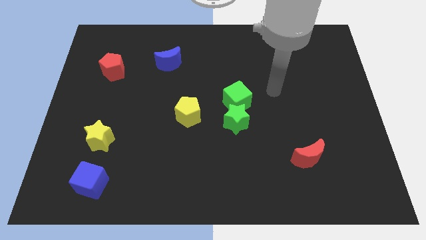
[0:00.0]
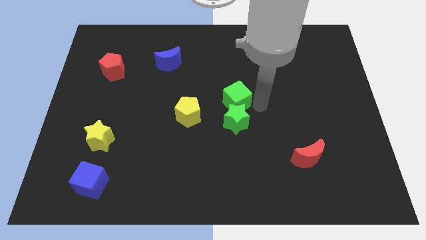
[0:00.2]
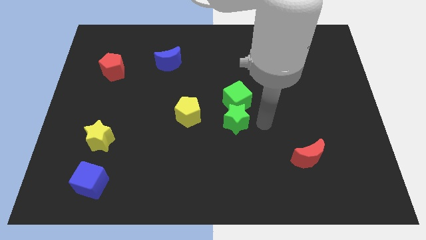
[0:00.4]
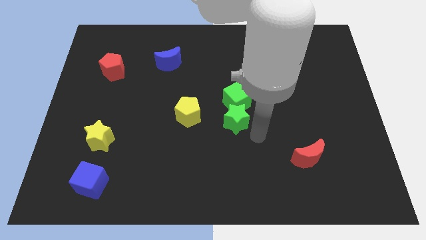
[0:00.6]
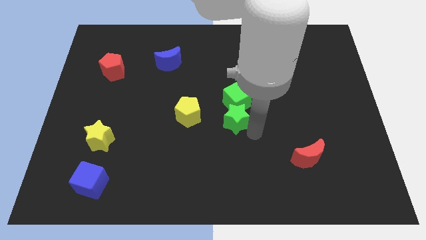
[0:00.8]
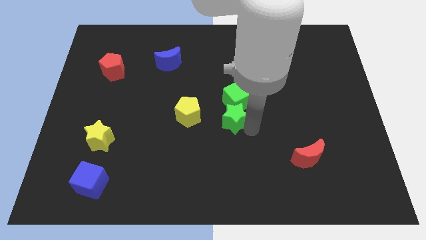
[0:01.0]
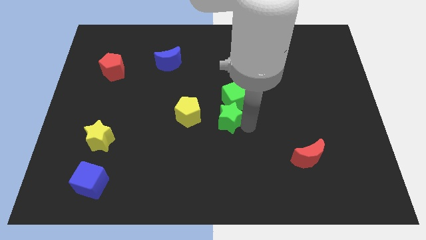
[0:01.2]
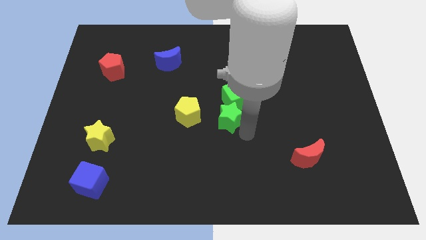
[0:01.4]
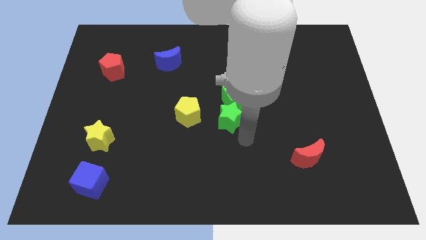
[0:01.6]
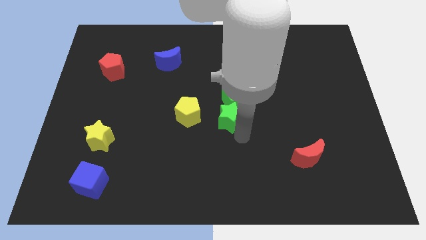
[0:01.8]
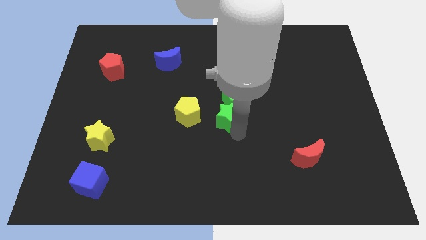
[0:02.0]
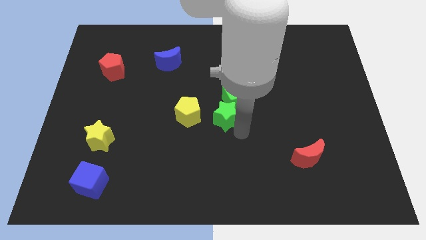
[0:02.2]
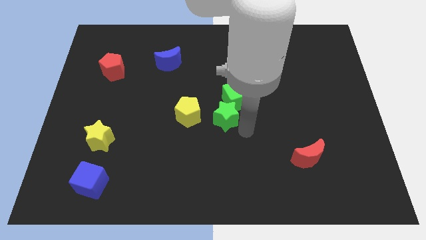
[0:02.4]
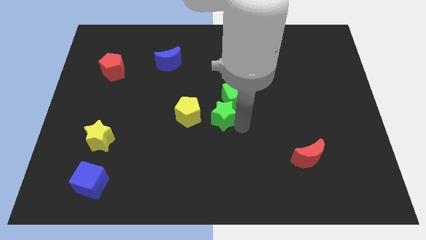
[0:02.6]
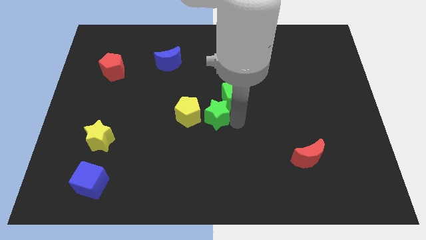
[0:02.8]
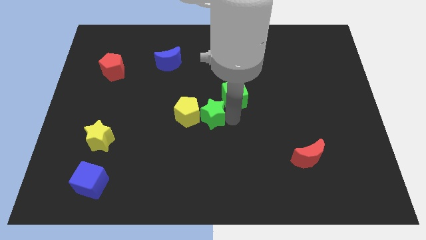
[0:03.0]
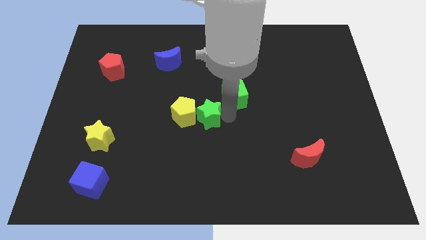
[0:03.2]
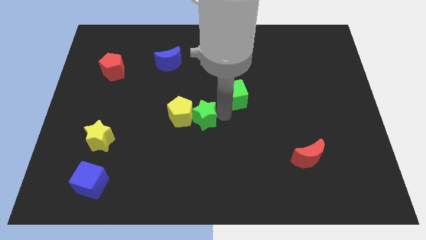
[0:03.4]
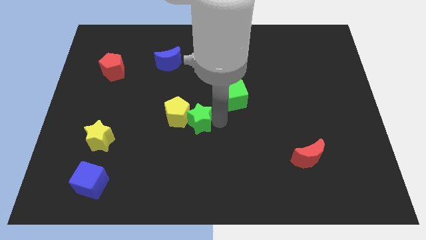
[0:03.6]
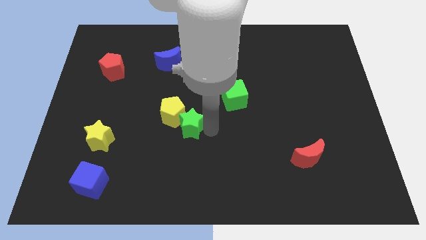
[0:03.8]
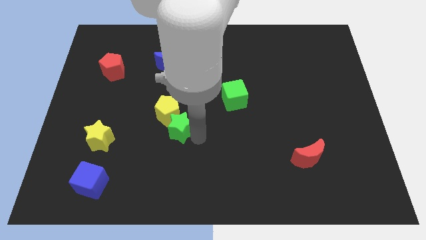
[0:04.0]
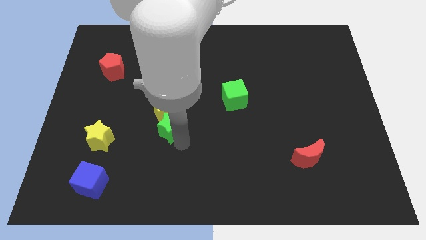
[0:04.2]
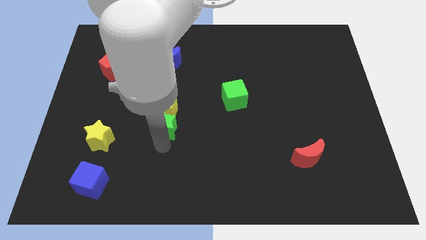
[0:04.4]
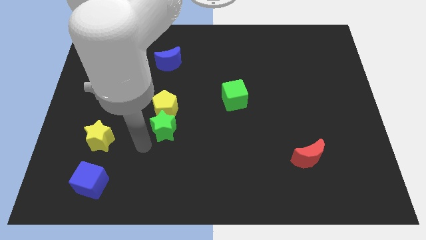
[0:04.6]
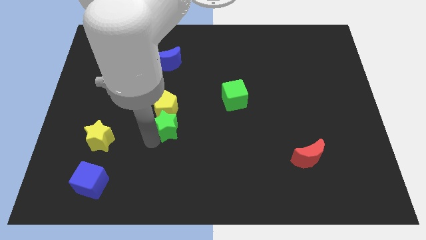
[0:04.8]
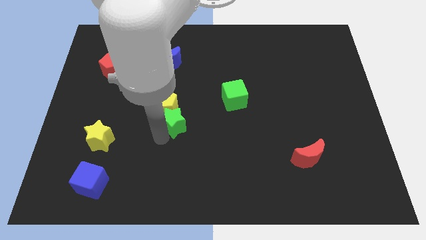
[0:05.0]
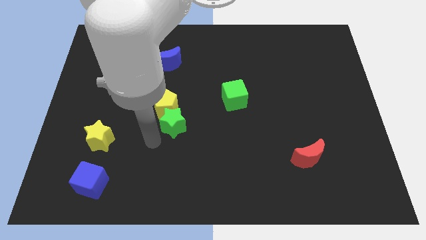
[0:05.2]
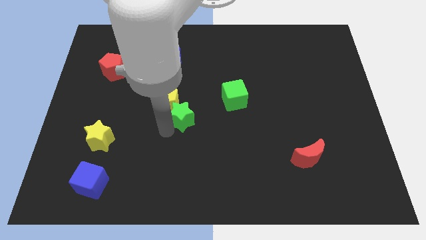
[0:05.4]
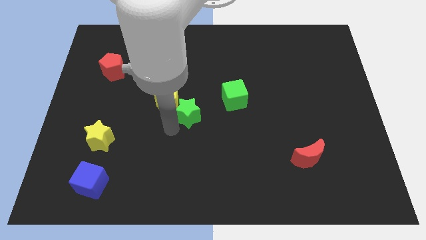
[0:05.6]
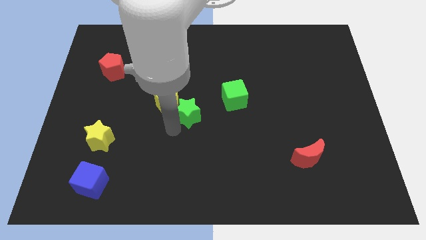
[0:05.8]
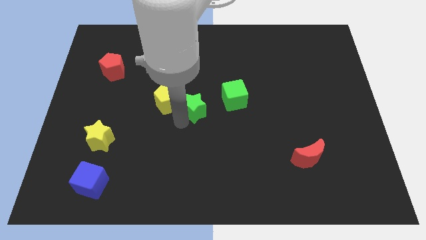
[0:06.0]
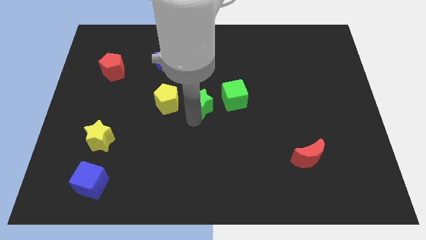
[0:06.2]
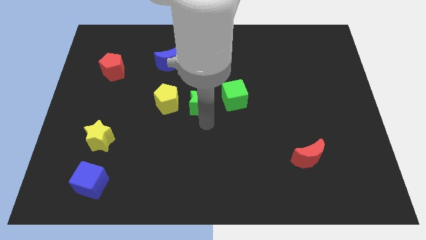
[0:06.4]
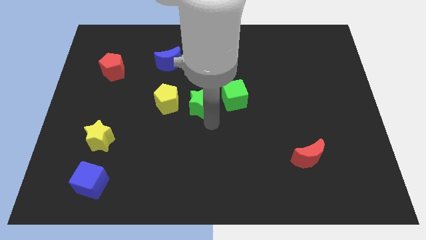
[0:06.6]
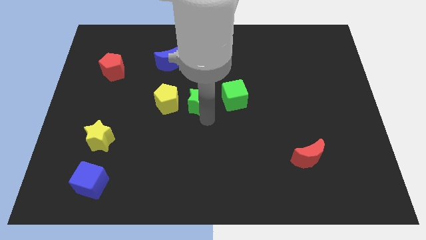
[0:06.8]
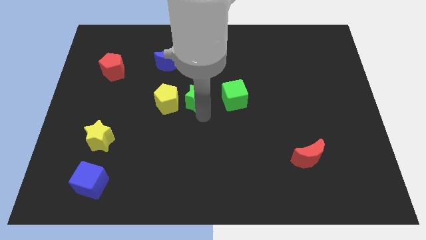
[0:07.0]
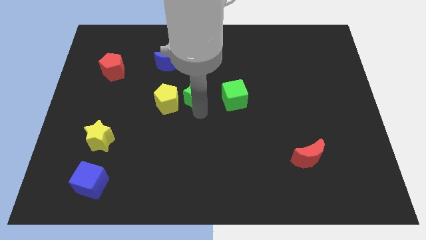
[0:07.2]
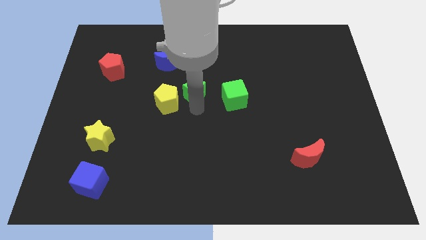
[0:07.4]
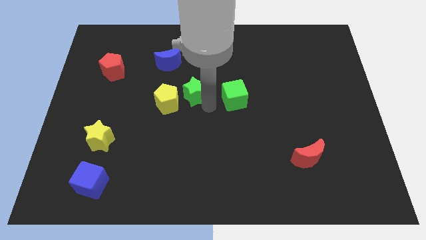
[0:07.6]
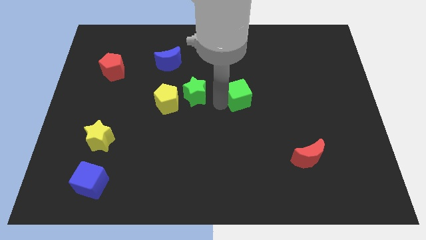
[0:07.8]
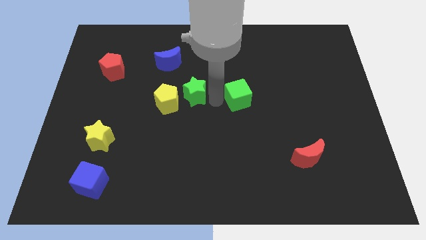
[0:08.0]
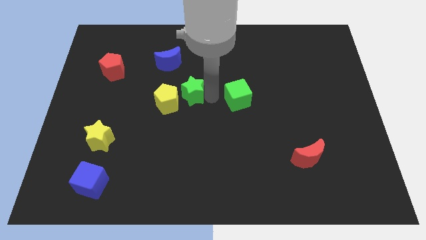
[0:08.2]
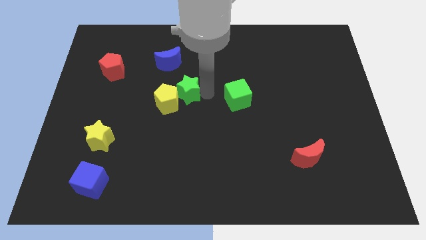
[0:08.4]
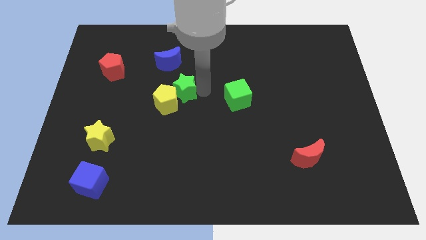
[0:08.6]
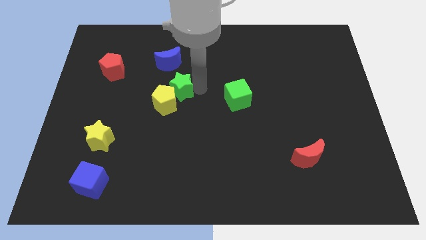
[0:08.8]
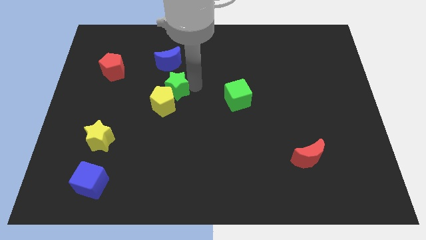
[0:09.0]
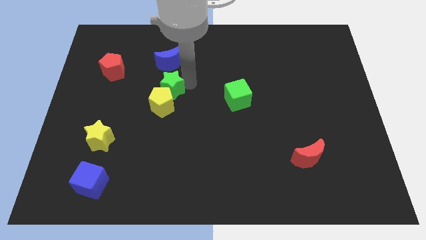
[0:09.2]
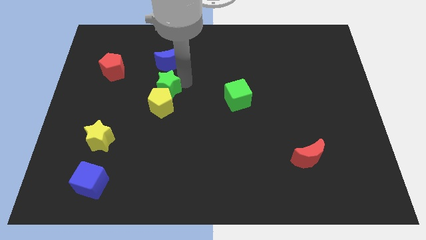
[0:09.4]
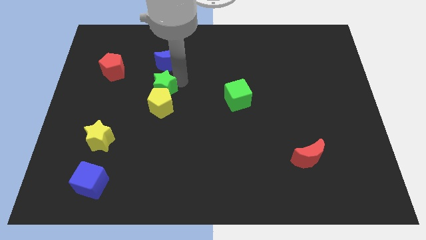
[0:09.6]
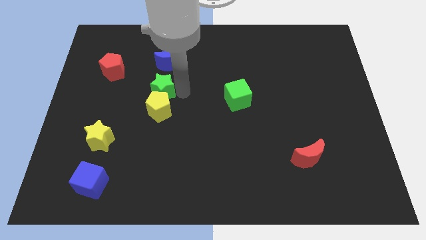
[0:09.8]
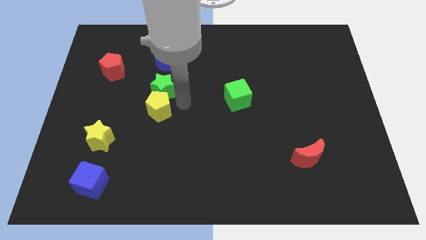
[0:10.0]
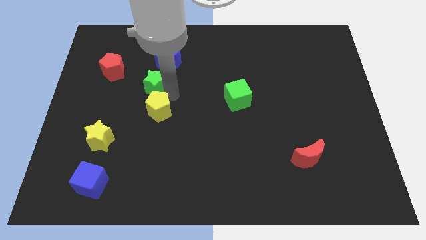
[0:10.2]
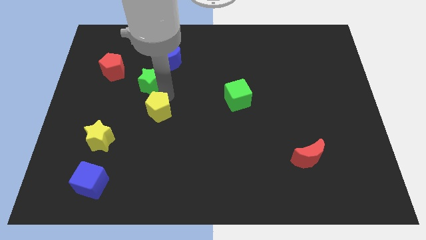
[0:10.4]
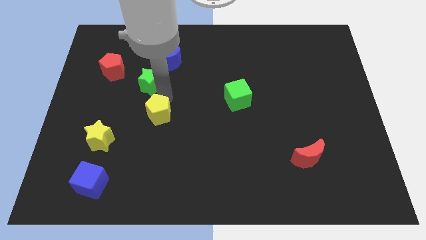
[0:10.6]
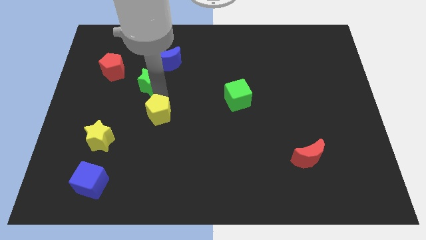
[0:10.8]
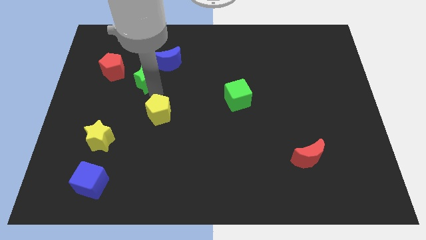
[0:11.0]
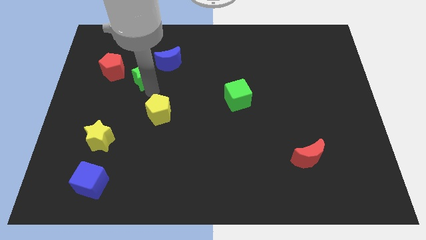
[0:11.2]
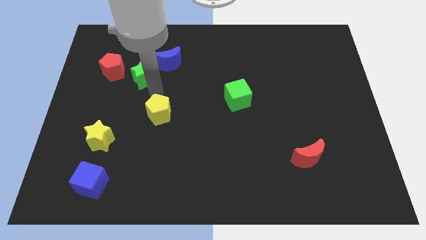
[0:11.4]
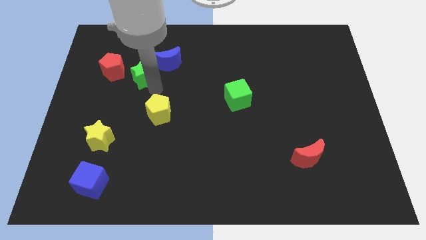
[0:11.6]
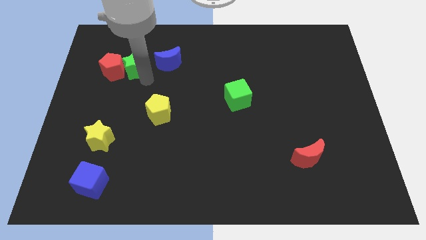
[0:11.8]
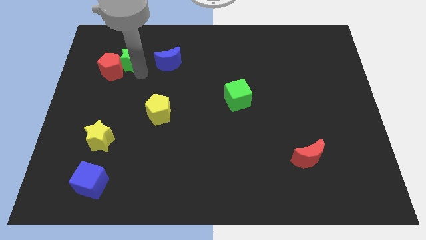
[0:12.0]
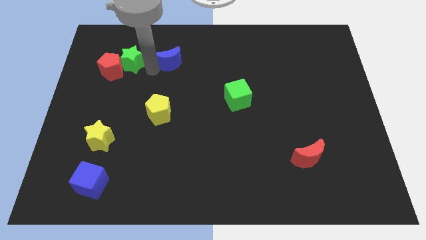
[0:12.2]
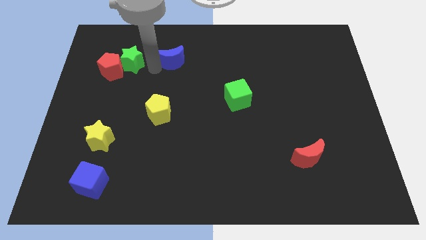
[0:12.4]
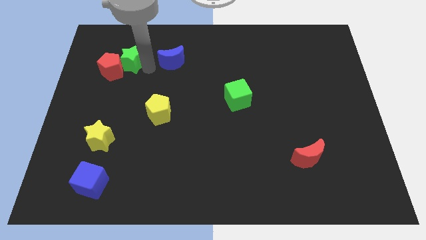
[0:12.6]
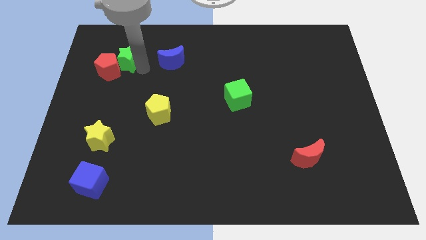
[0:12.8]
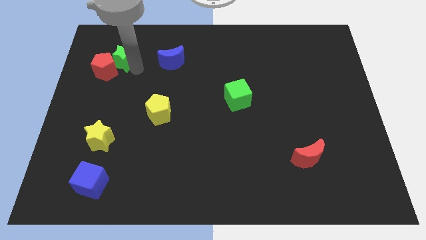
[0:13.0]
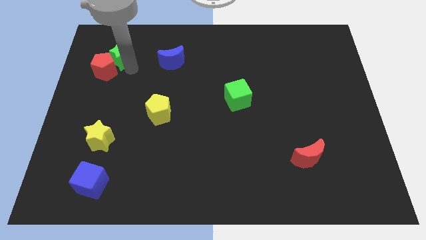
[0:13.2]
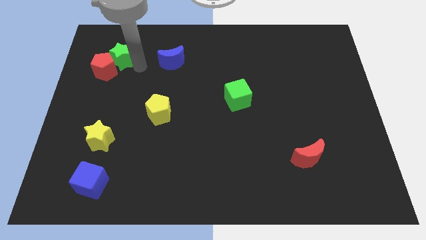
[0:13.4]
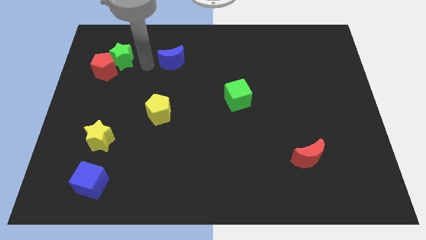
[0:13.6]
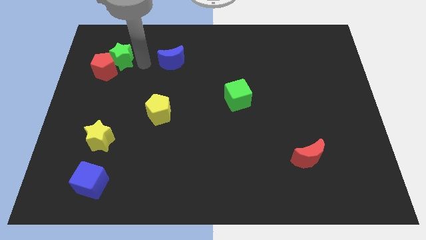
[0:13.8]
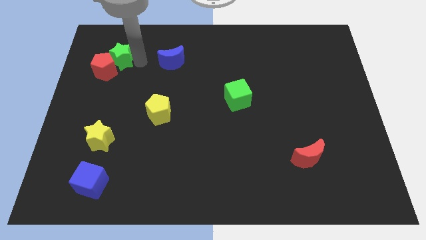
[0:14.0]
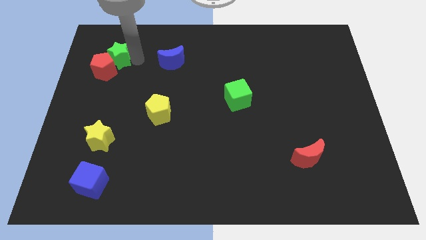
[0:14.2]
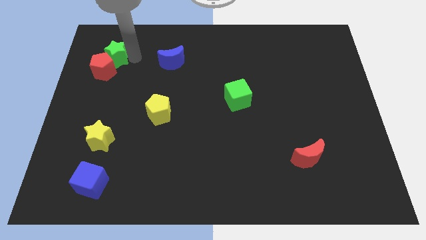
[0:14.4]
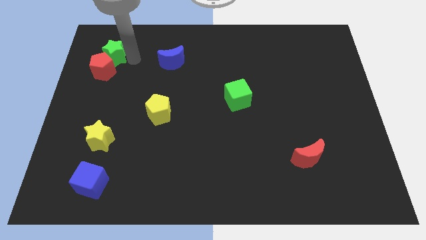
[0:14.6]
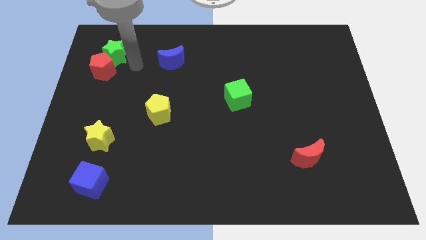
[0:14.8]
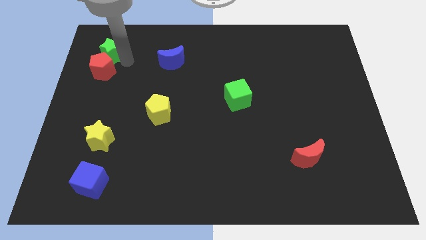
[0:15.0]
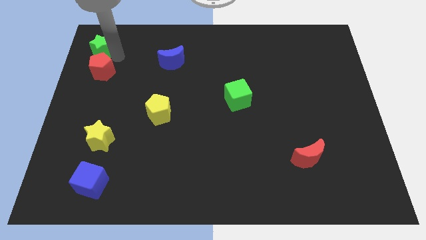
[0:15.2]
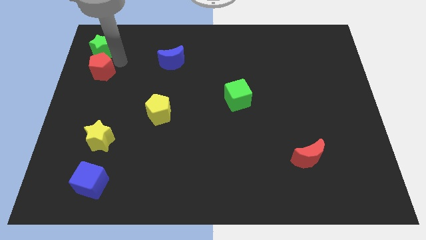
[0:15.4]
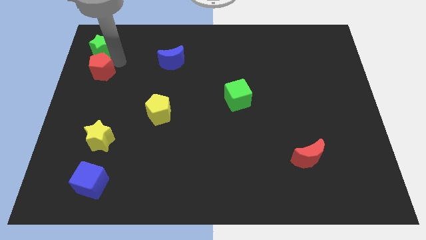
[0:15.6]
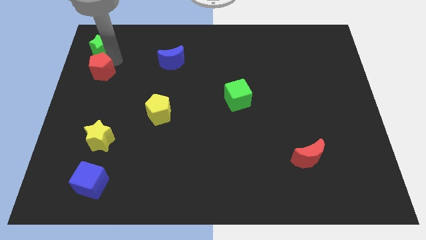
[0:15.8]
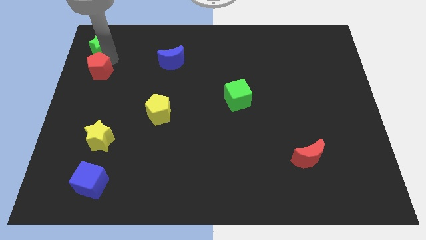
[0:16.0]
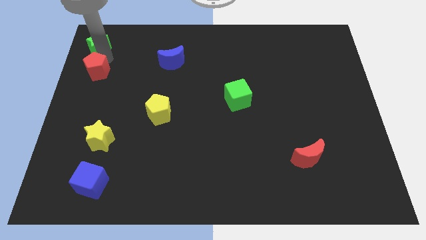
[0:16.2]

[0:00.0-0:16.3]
move the green star to the top left of the board
